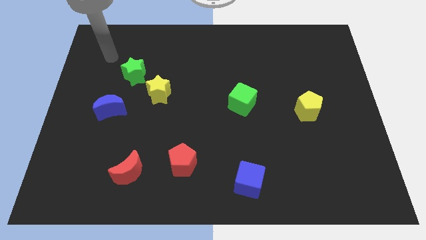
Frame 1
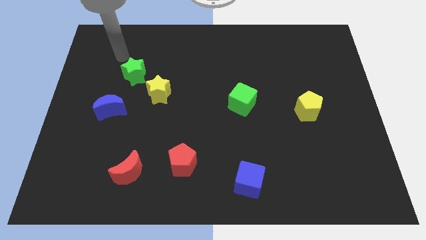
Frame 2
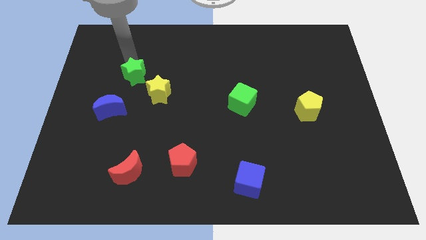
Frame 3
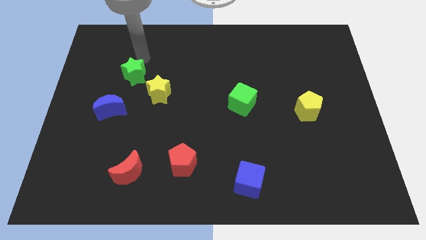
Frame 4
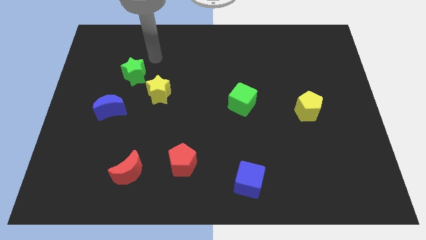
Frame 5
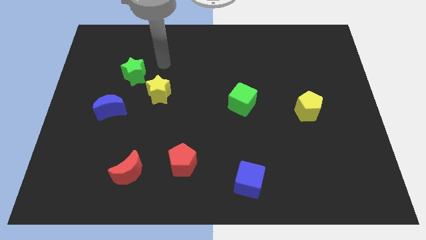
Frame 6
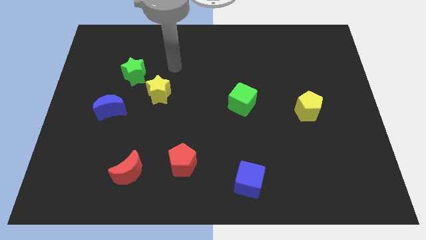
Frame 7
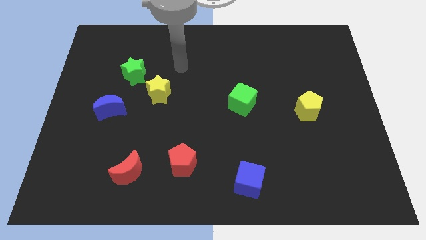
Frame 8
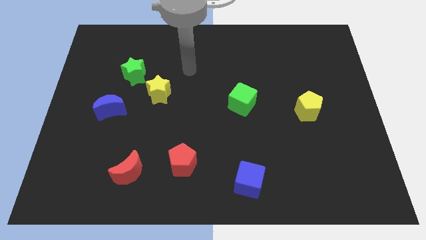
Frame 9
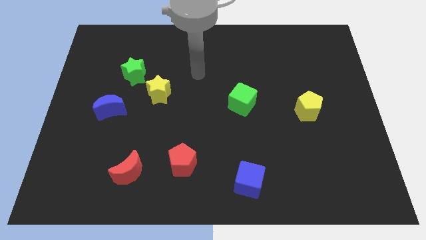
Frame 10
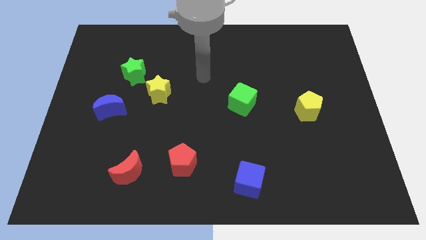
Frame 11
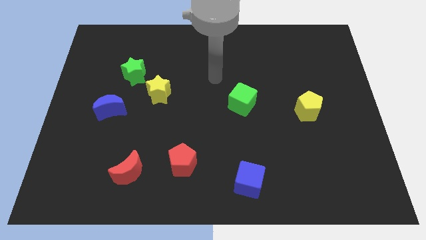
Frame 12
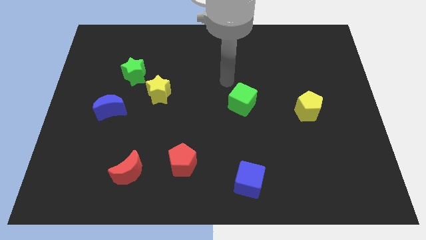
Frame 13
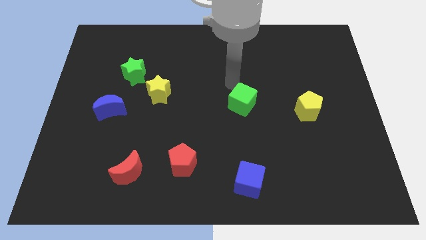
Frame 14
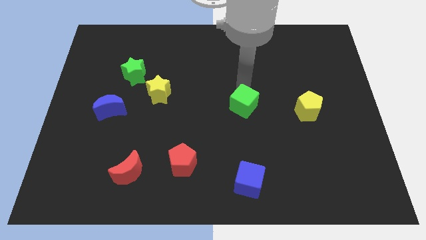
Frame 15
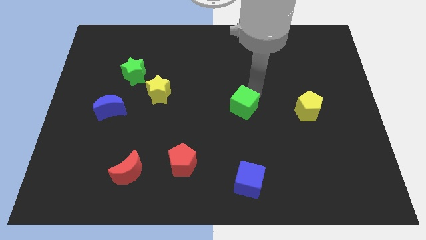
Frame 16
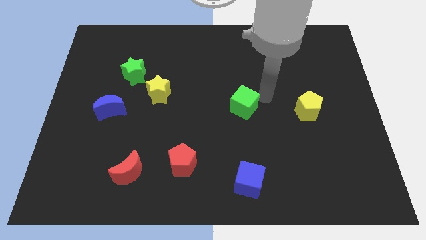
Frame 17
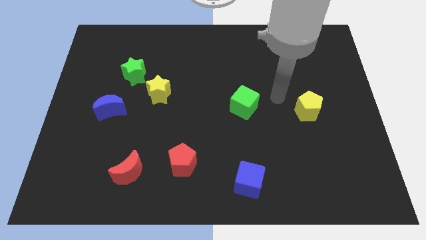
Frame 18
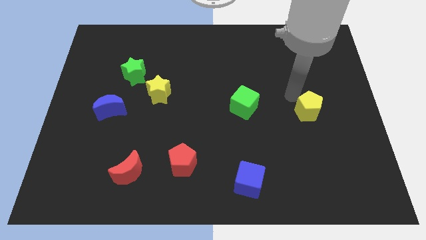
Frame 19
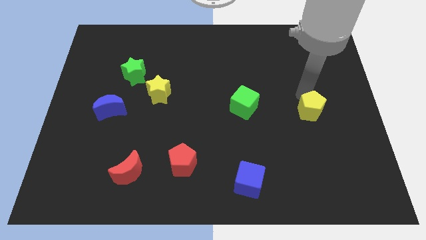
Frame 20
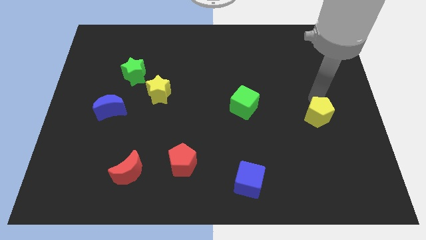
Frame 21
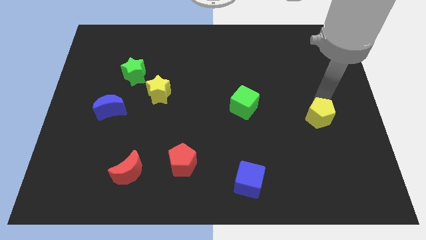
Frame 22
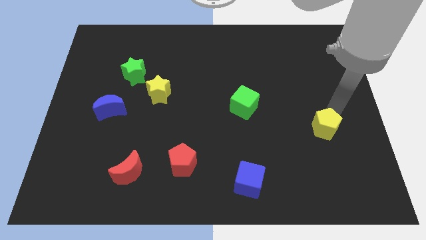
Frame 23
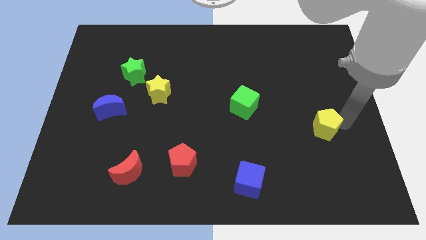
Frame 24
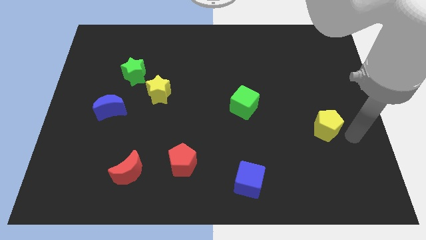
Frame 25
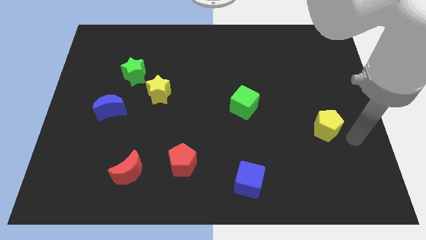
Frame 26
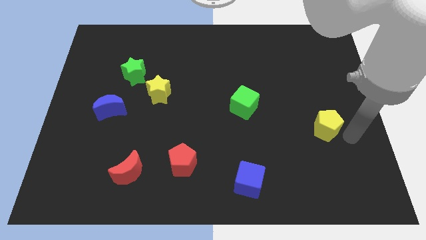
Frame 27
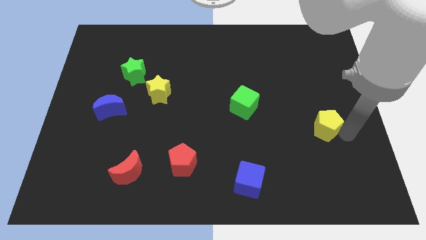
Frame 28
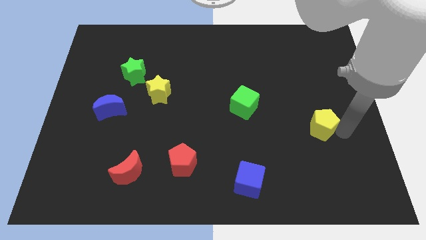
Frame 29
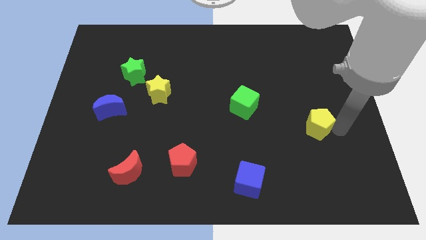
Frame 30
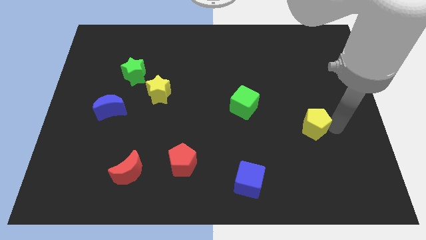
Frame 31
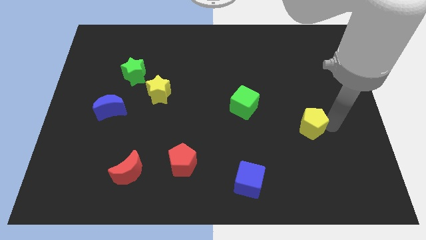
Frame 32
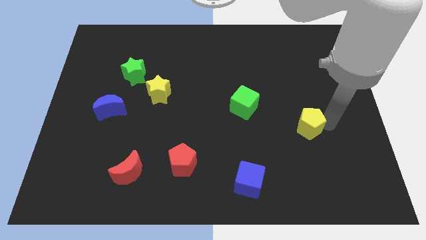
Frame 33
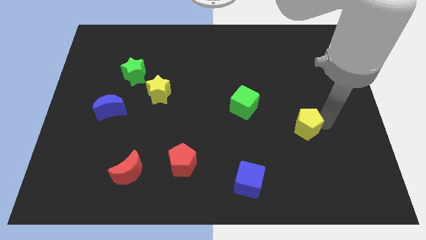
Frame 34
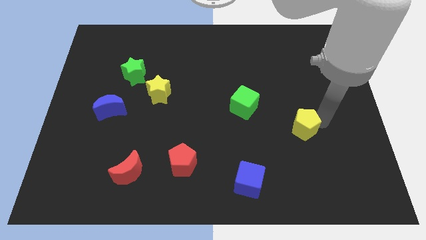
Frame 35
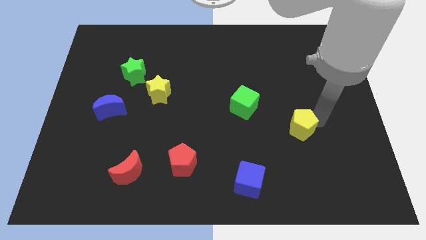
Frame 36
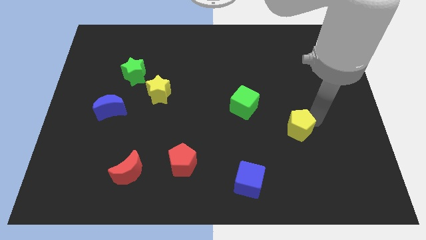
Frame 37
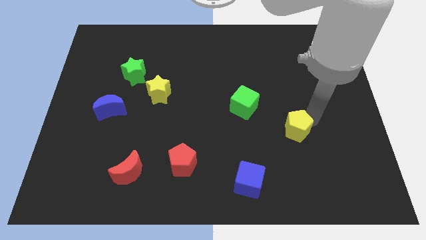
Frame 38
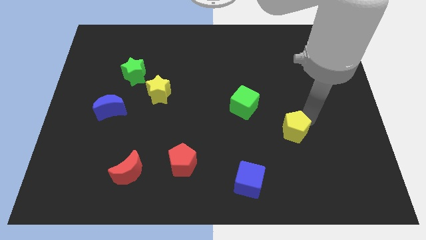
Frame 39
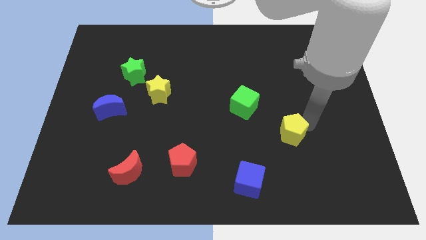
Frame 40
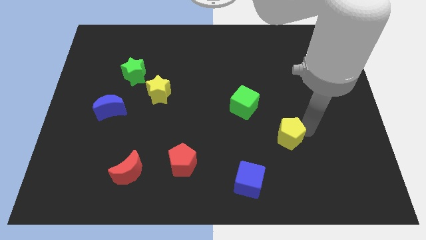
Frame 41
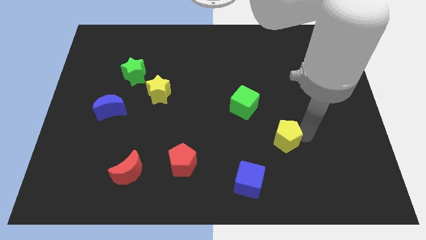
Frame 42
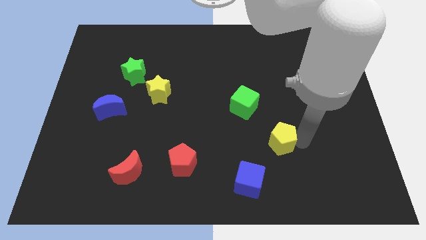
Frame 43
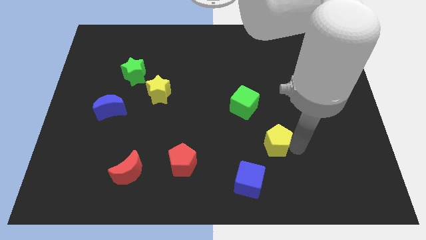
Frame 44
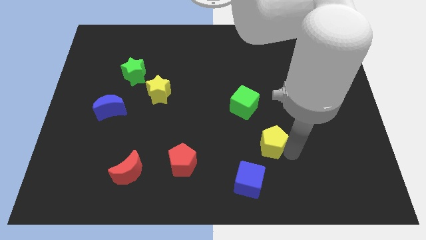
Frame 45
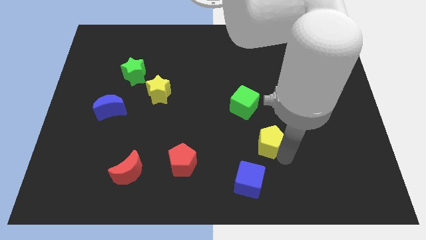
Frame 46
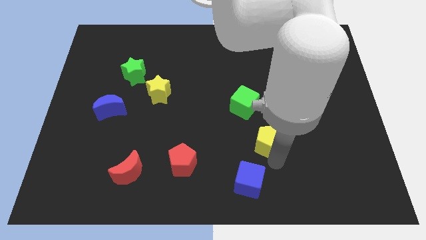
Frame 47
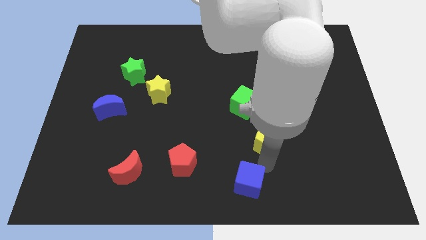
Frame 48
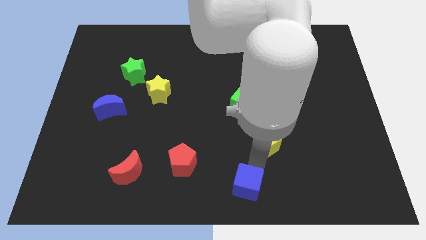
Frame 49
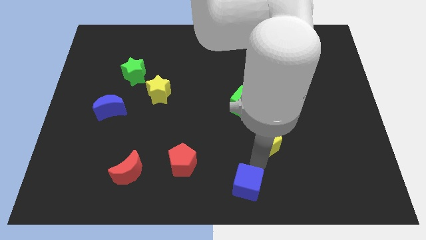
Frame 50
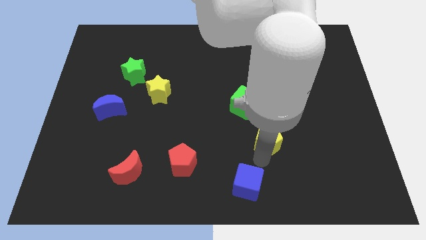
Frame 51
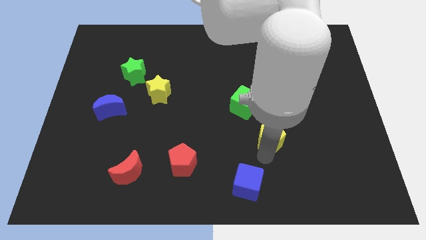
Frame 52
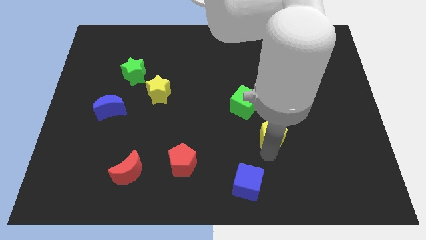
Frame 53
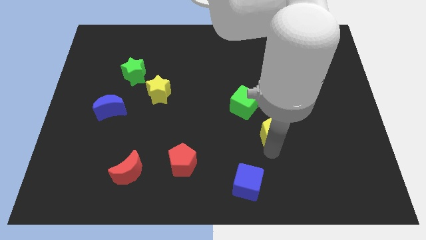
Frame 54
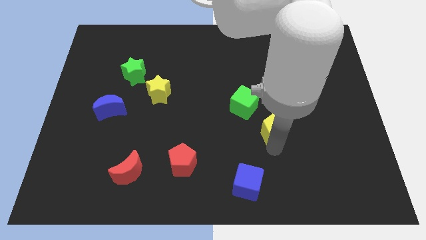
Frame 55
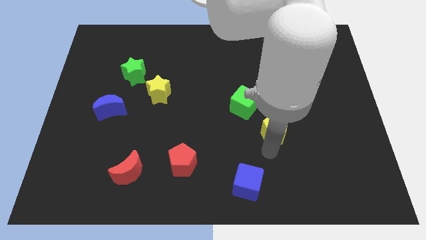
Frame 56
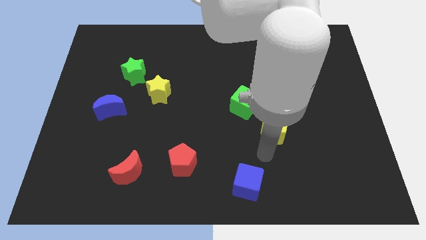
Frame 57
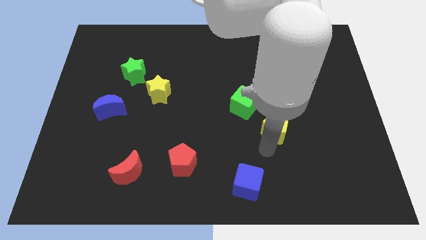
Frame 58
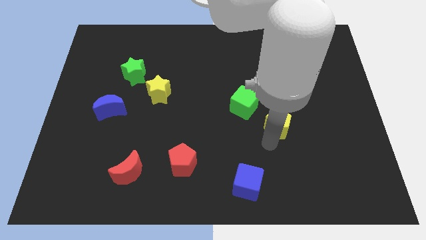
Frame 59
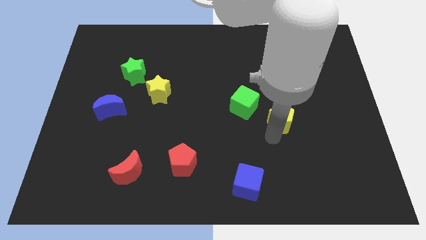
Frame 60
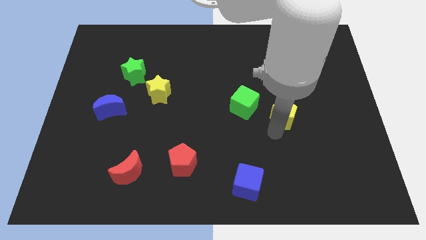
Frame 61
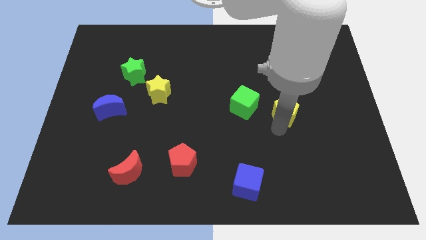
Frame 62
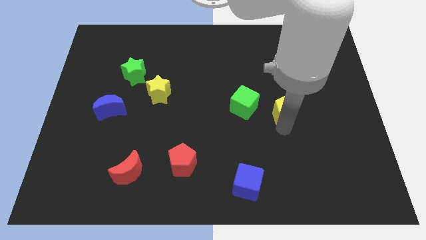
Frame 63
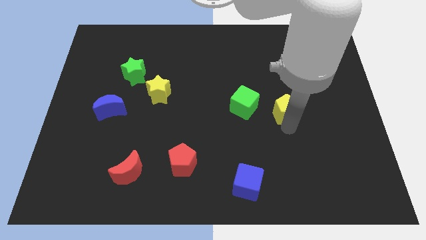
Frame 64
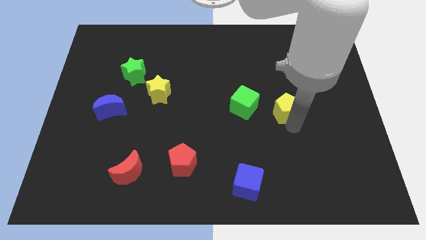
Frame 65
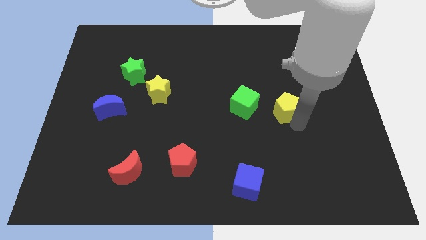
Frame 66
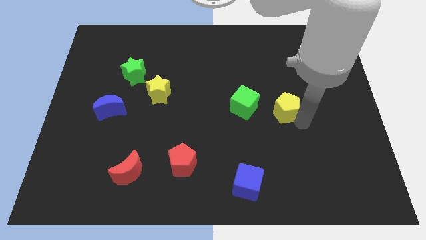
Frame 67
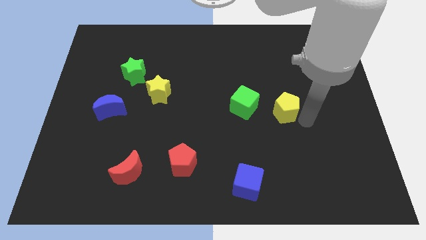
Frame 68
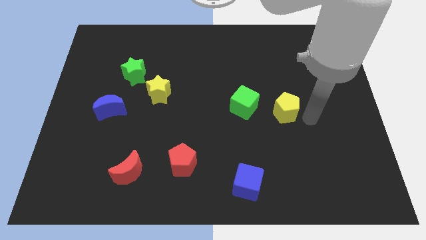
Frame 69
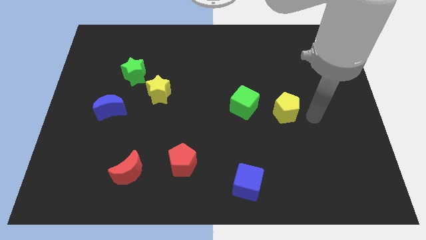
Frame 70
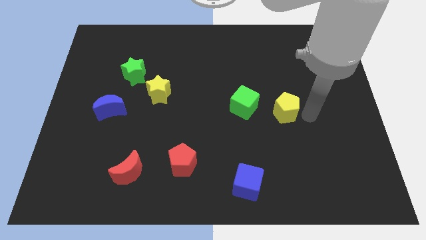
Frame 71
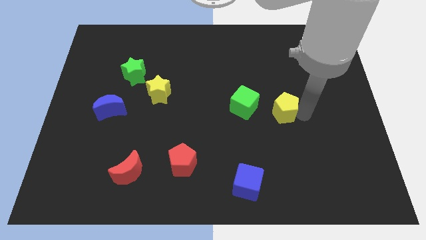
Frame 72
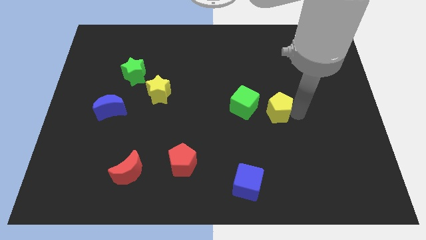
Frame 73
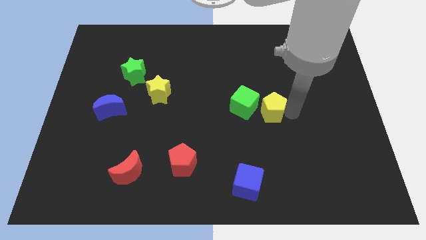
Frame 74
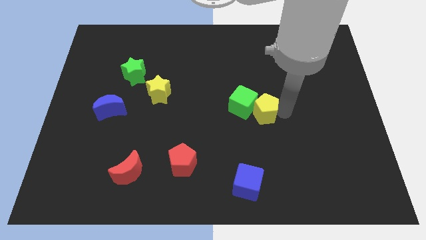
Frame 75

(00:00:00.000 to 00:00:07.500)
put the yellow pentagon next to the green cube

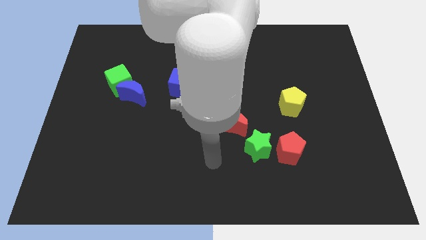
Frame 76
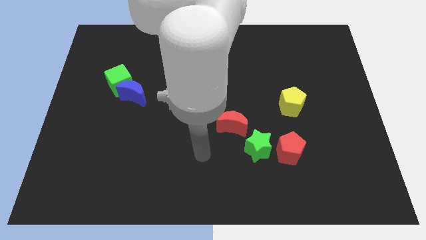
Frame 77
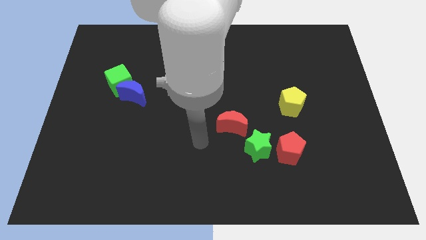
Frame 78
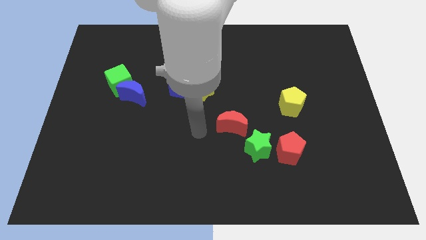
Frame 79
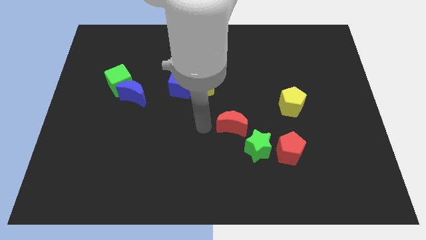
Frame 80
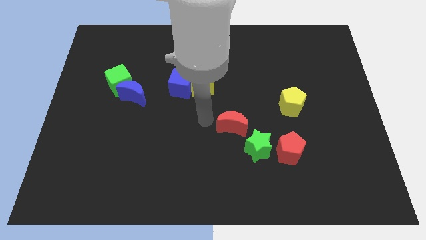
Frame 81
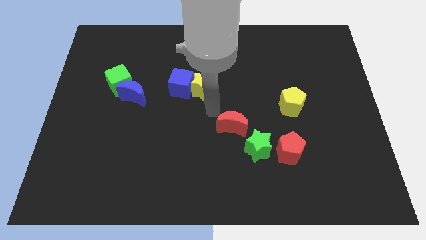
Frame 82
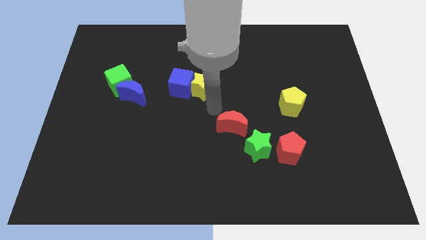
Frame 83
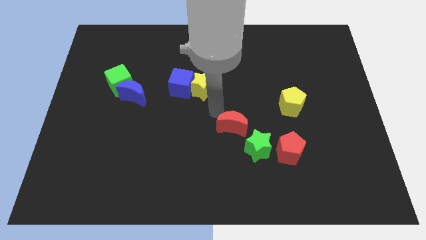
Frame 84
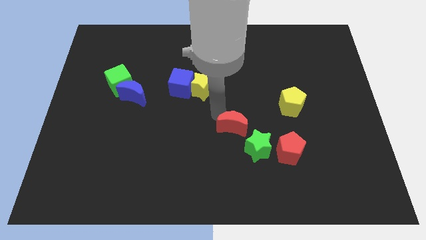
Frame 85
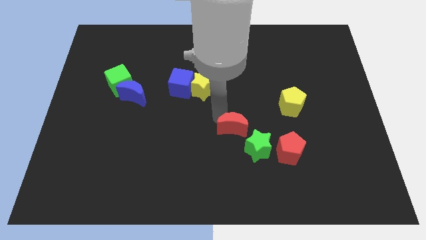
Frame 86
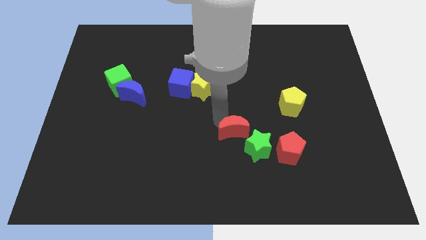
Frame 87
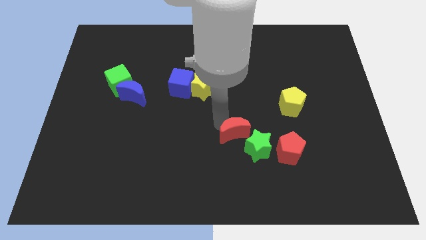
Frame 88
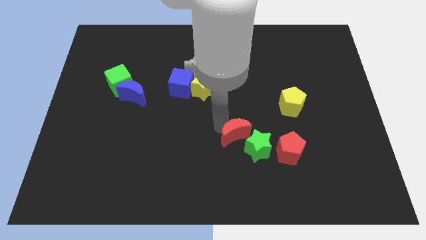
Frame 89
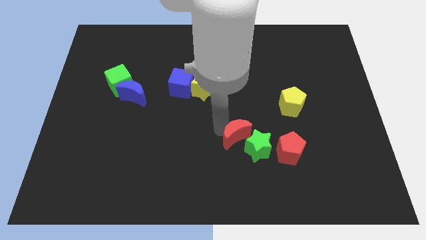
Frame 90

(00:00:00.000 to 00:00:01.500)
put the red moon to the green star
